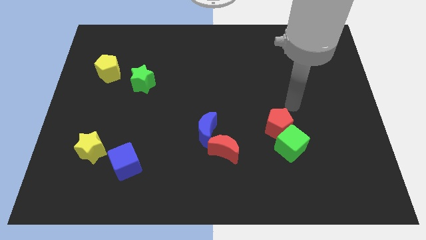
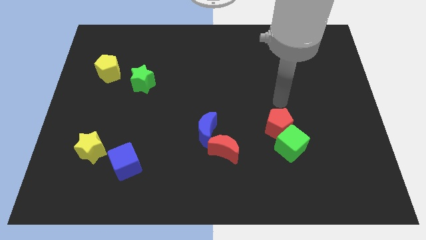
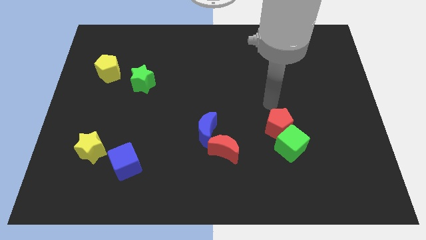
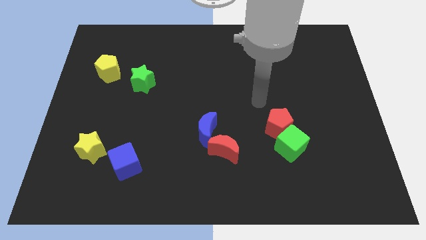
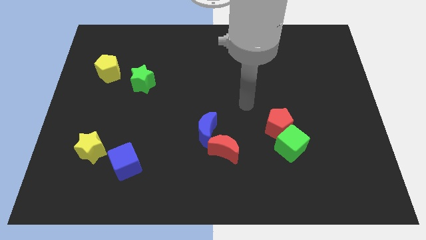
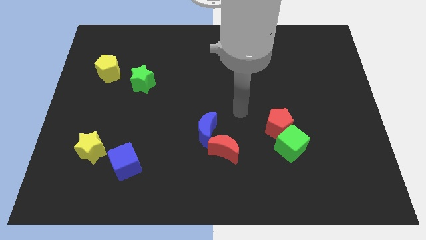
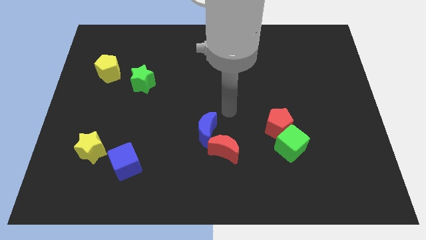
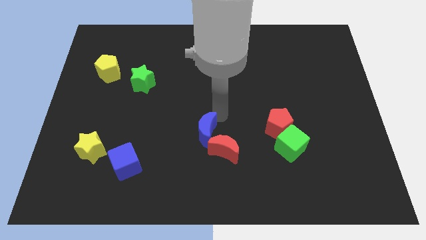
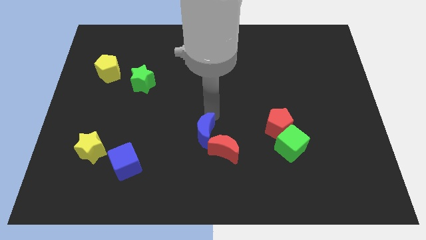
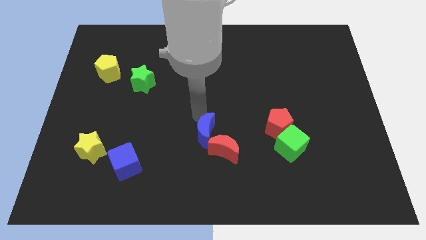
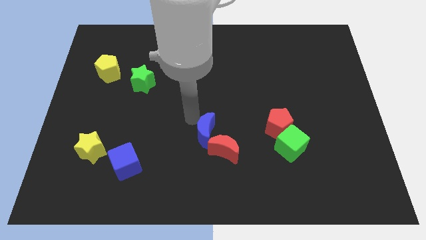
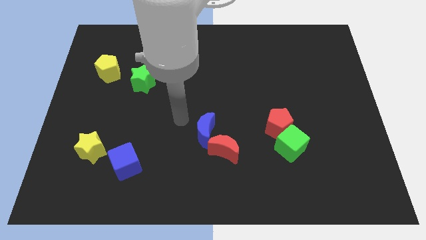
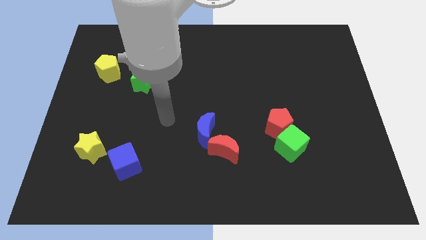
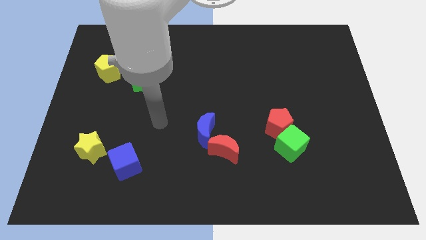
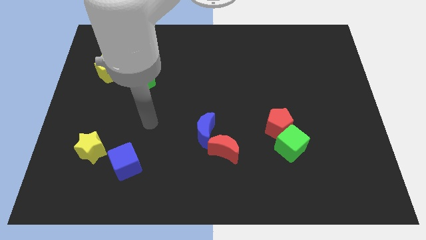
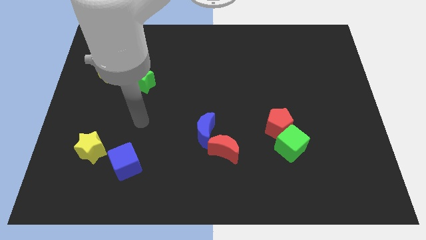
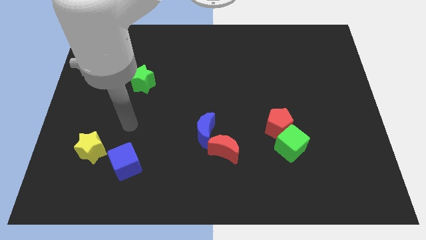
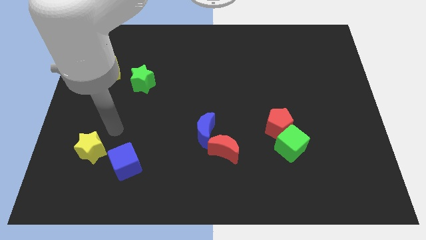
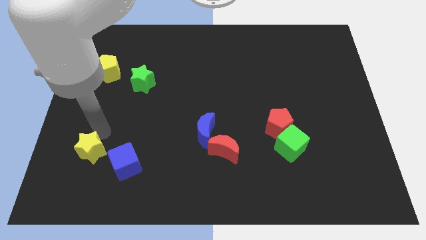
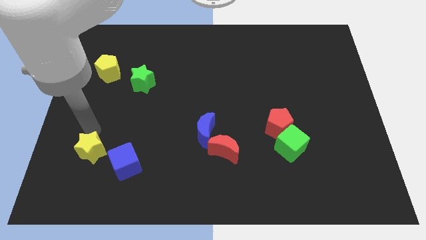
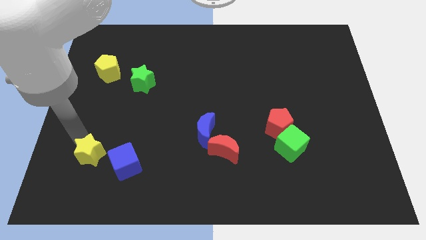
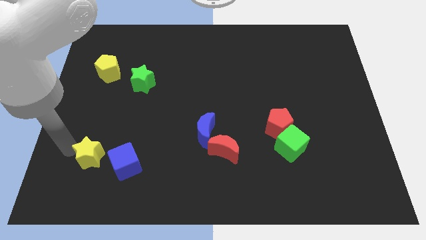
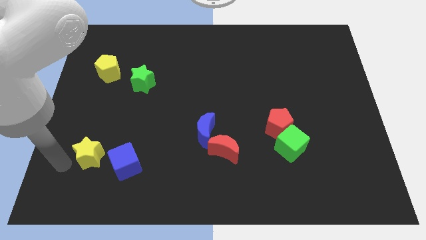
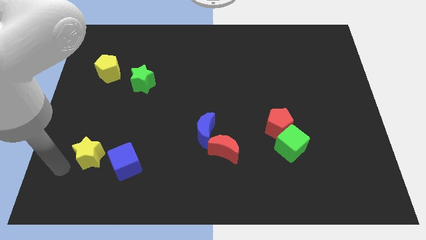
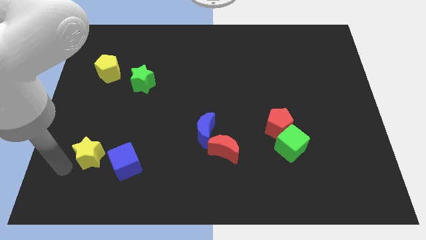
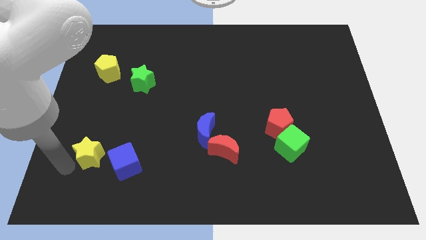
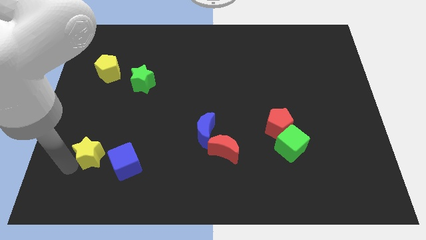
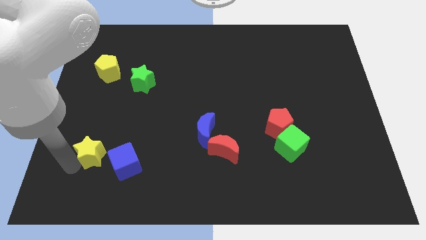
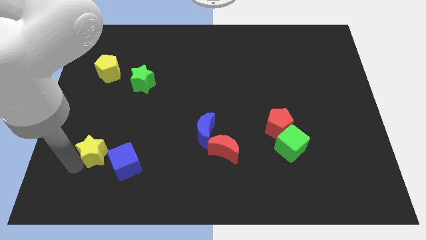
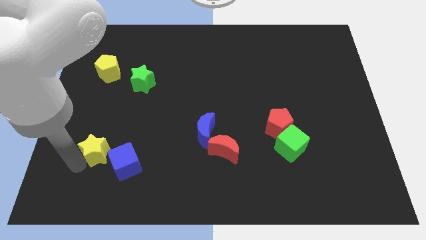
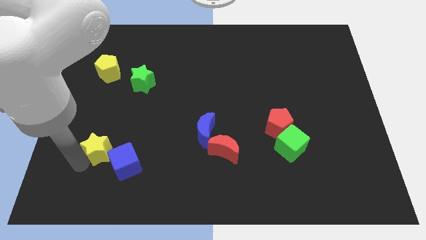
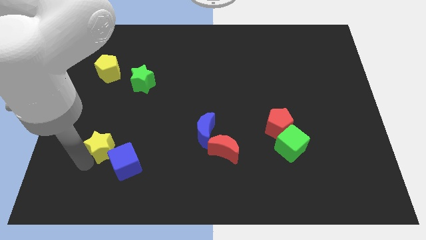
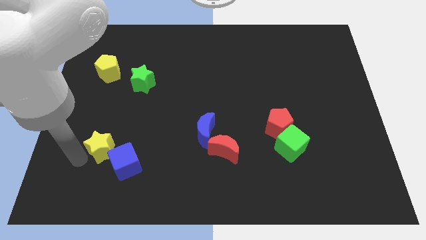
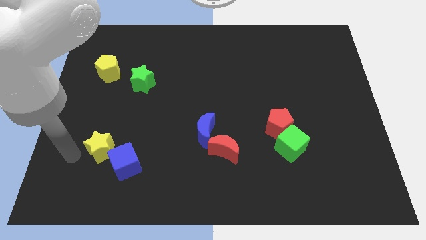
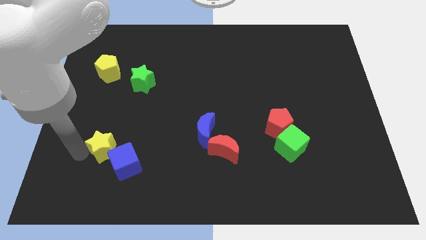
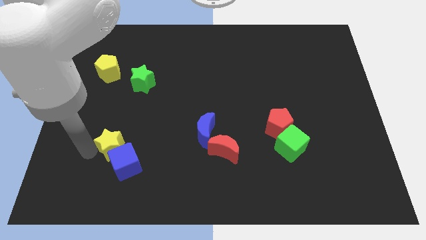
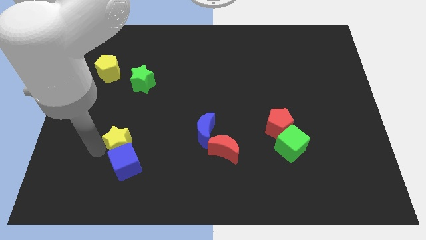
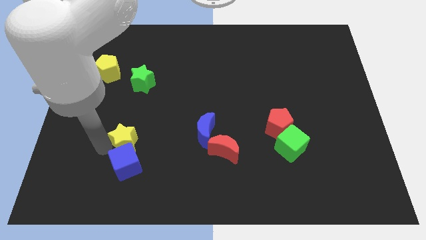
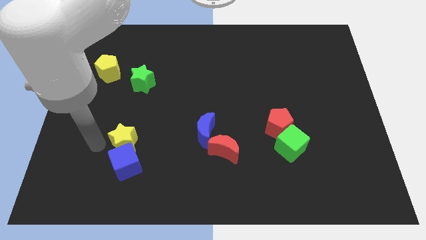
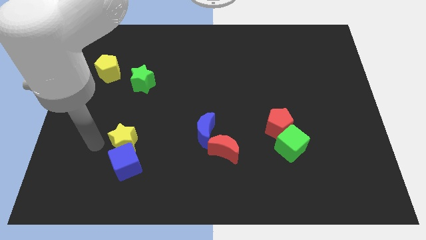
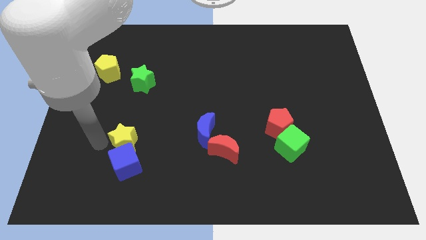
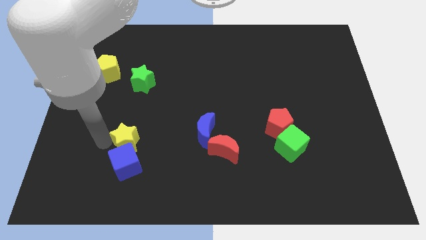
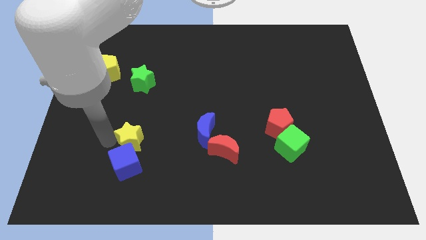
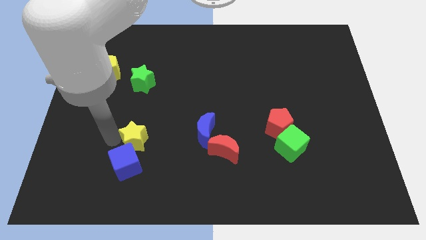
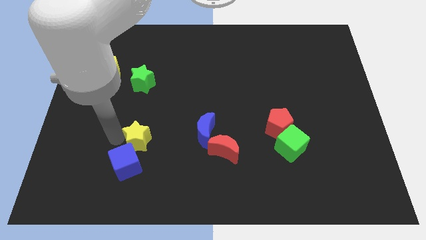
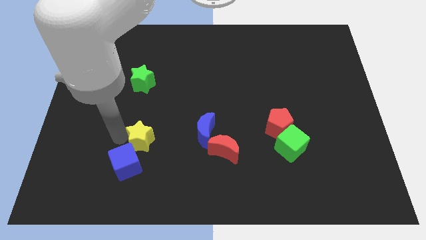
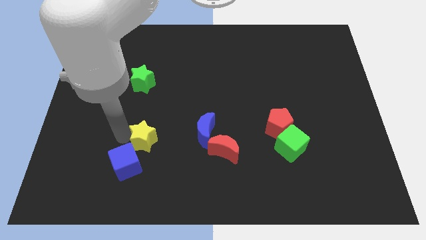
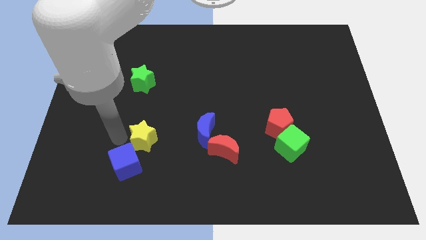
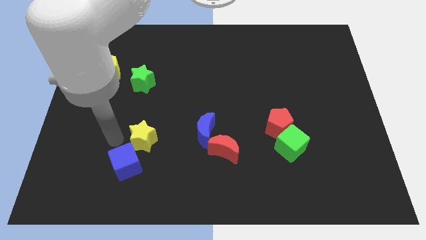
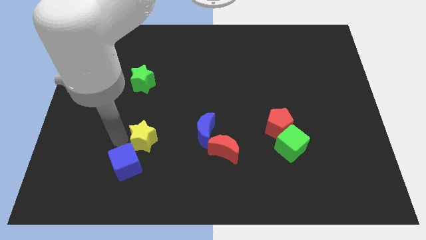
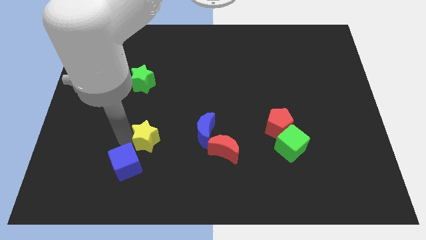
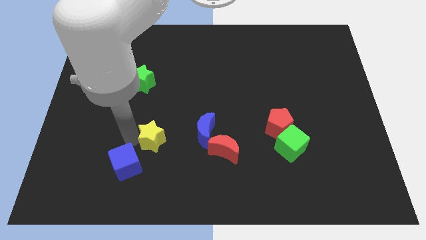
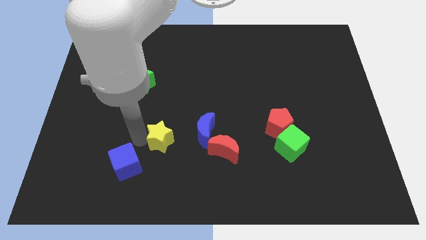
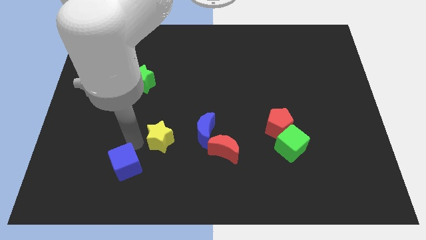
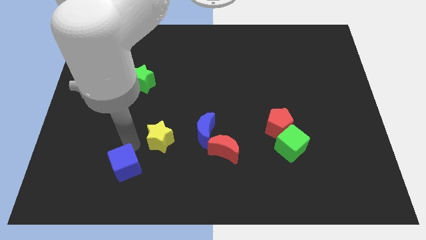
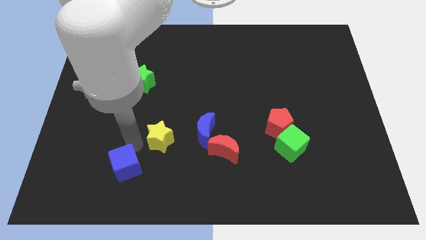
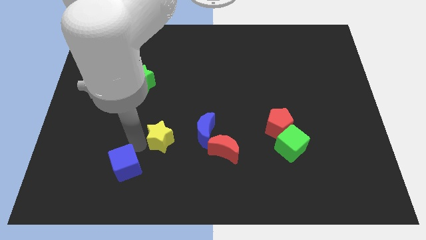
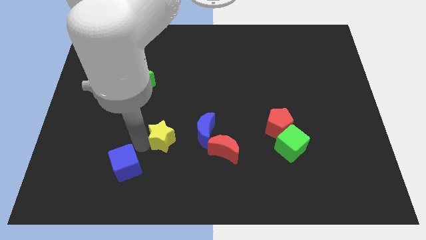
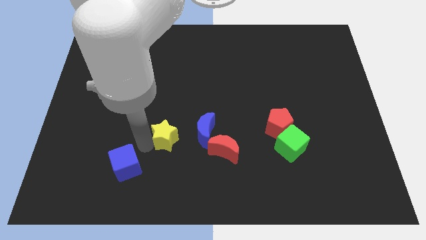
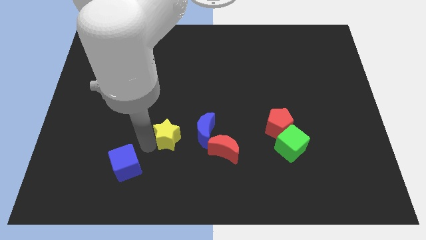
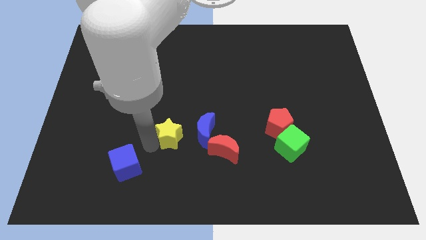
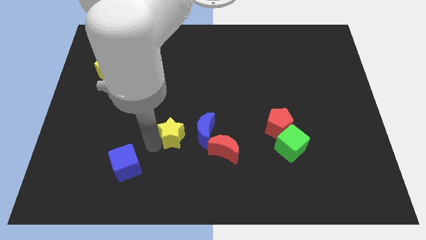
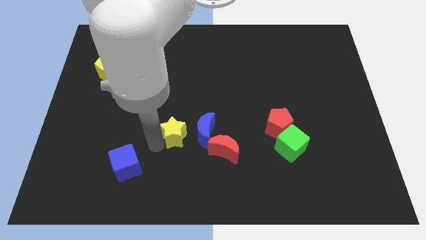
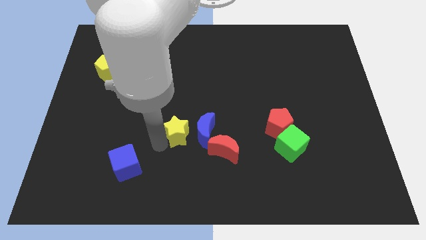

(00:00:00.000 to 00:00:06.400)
push the yellow star to the blue moon
